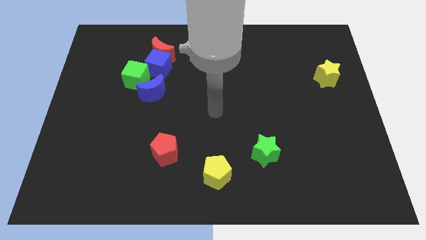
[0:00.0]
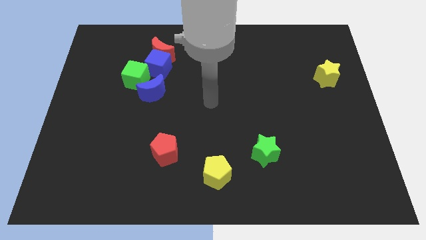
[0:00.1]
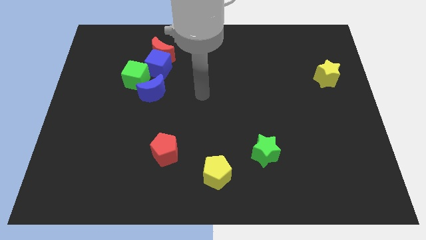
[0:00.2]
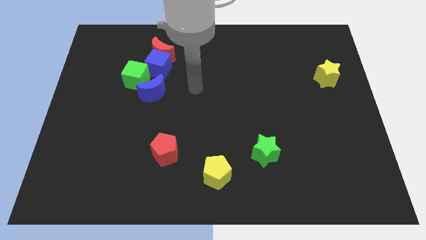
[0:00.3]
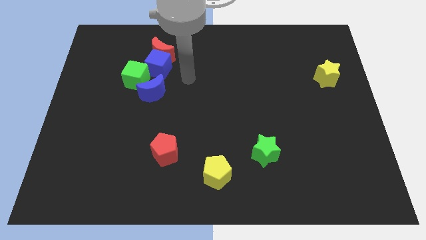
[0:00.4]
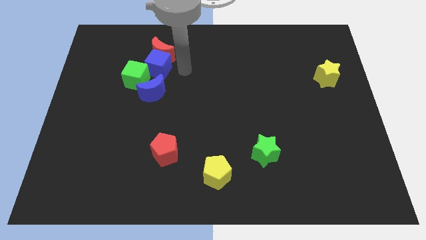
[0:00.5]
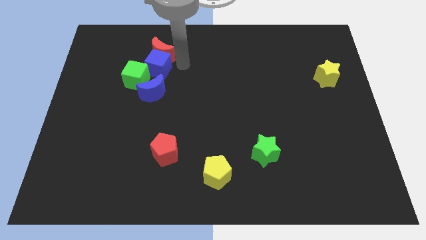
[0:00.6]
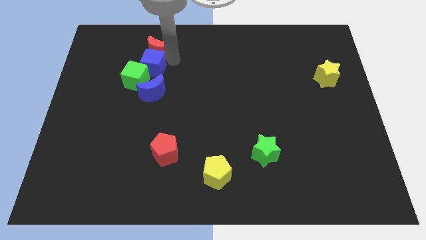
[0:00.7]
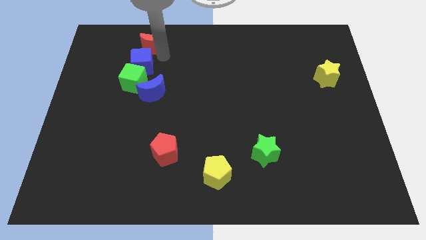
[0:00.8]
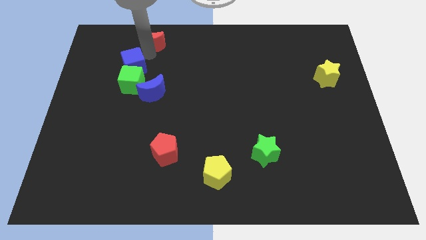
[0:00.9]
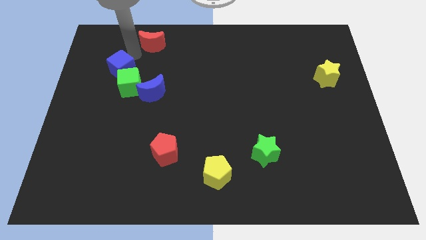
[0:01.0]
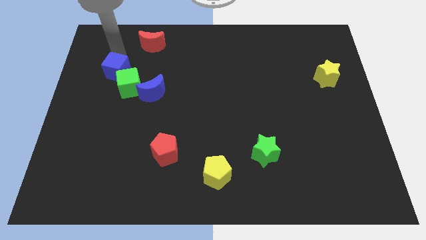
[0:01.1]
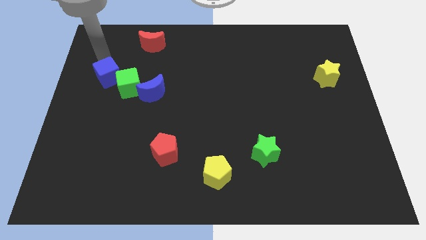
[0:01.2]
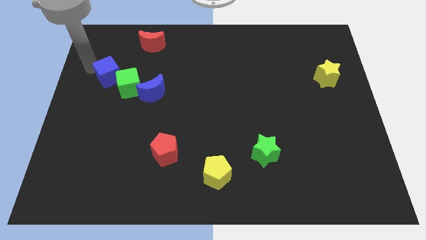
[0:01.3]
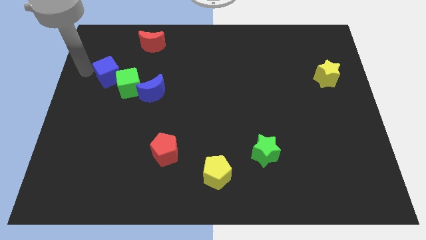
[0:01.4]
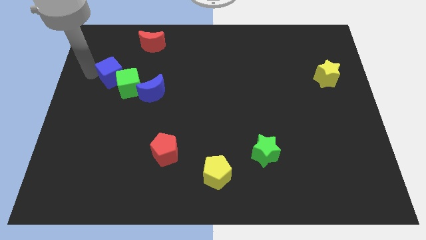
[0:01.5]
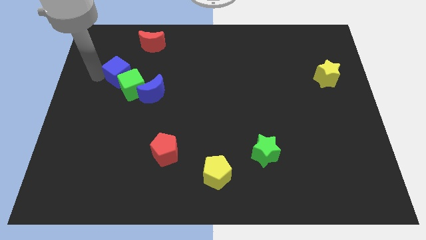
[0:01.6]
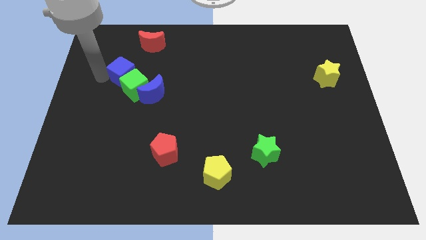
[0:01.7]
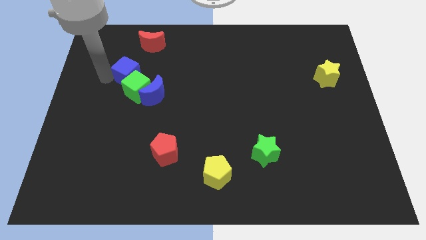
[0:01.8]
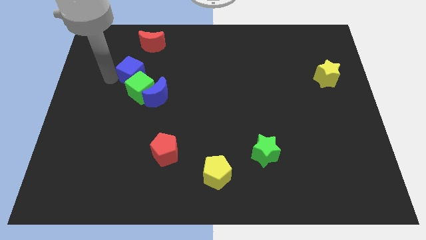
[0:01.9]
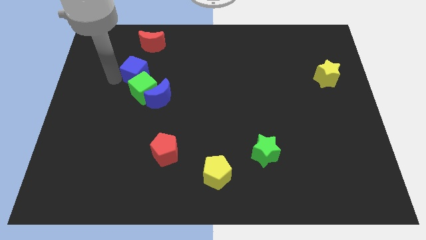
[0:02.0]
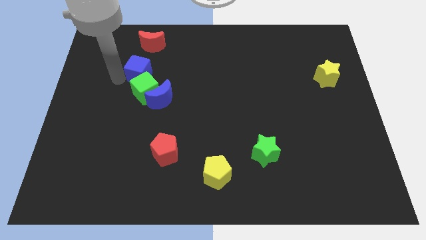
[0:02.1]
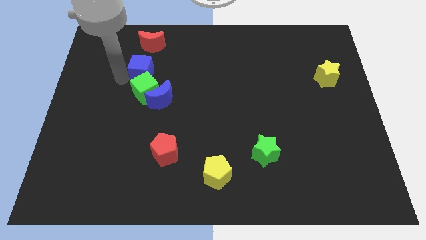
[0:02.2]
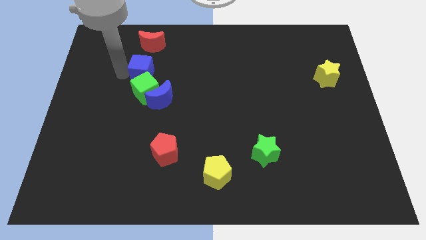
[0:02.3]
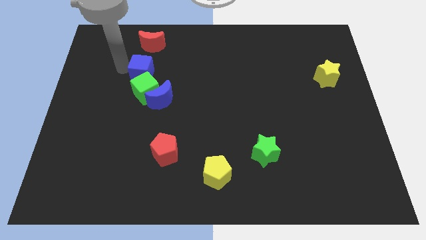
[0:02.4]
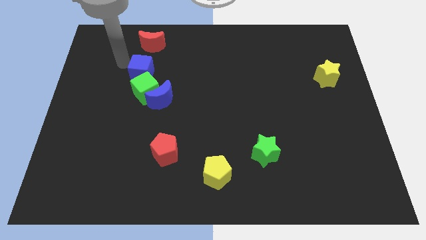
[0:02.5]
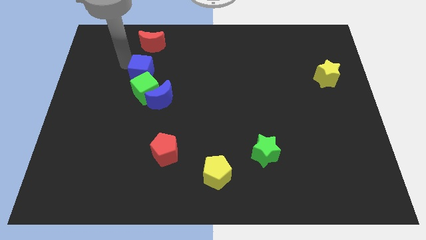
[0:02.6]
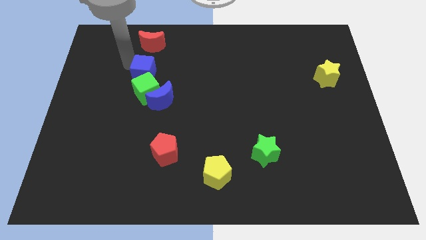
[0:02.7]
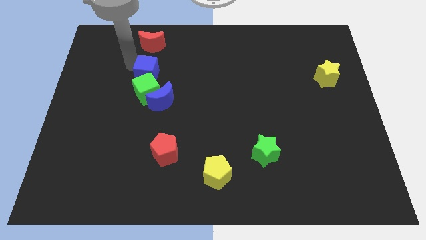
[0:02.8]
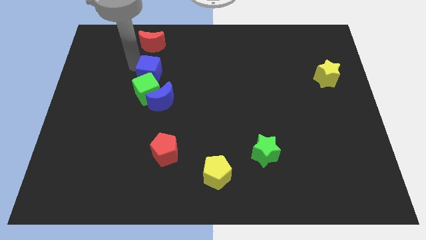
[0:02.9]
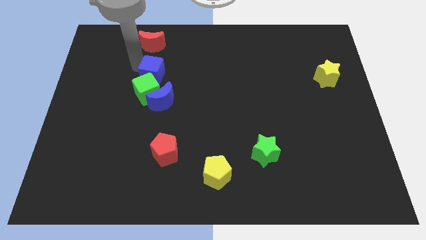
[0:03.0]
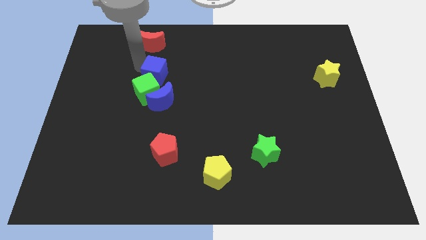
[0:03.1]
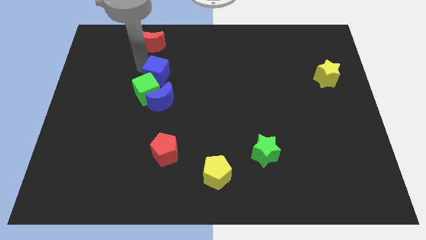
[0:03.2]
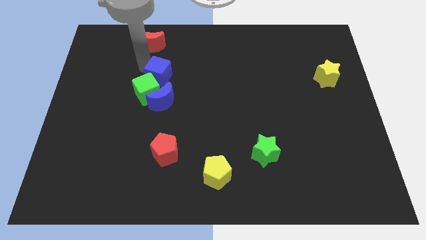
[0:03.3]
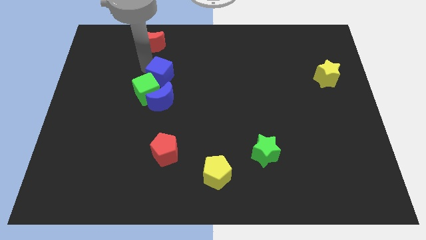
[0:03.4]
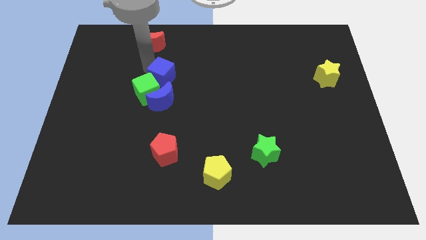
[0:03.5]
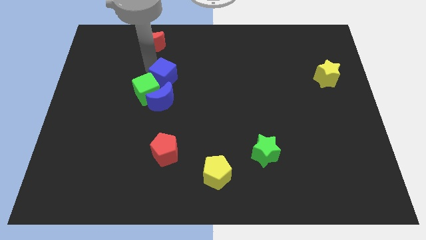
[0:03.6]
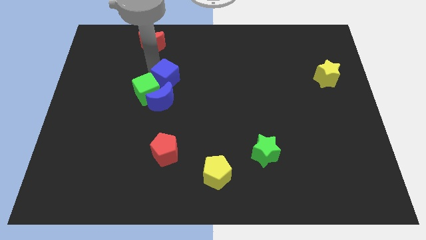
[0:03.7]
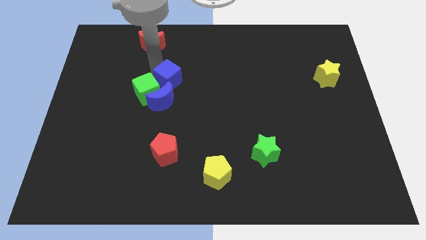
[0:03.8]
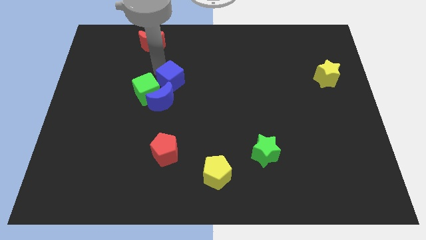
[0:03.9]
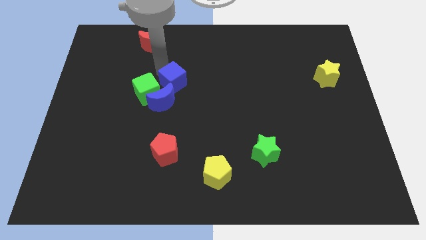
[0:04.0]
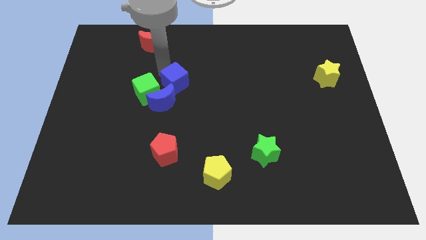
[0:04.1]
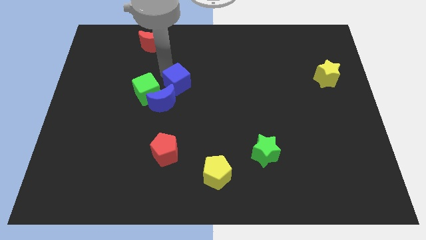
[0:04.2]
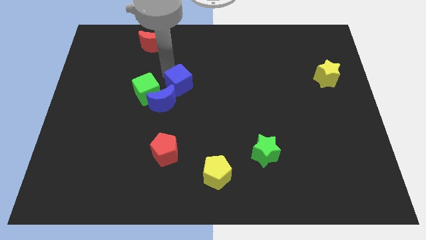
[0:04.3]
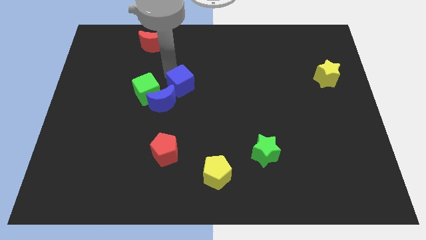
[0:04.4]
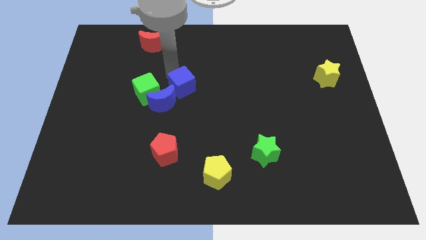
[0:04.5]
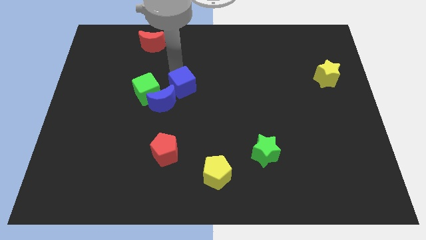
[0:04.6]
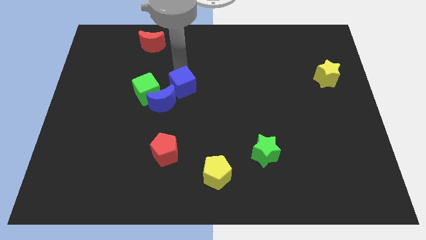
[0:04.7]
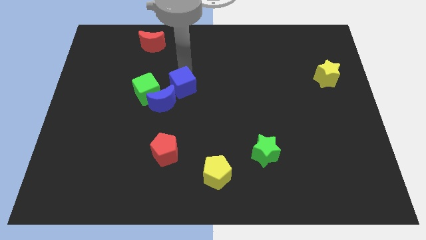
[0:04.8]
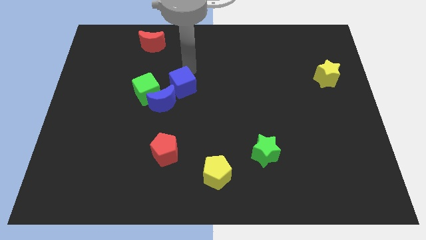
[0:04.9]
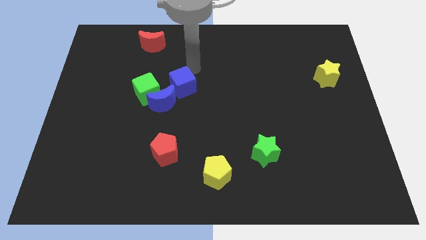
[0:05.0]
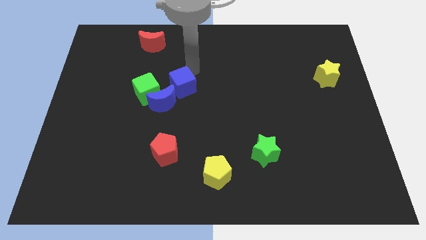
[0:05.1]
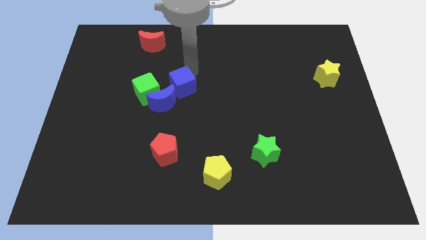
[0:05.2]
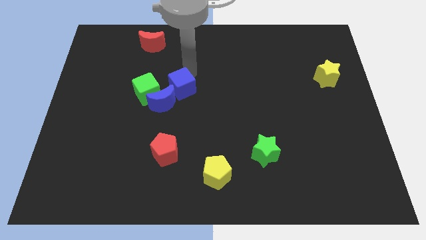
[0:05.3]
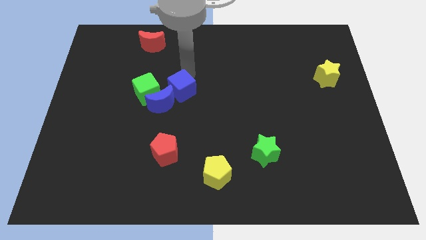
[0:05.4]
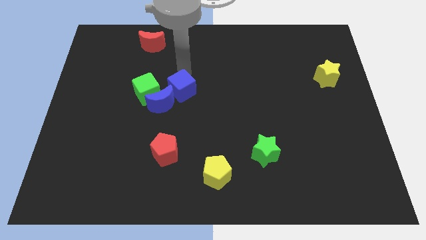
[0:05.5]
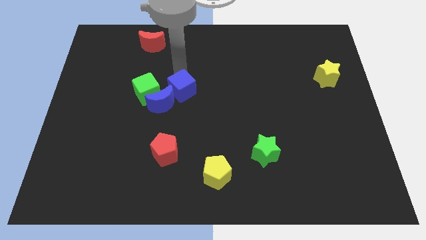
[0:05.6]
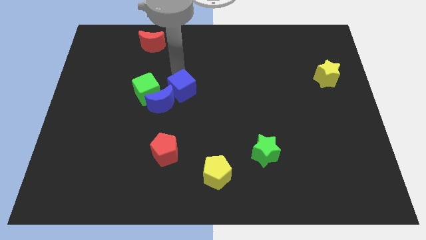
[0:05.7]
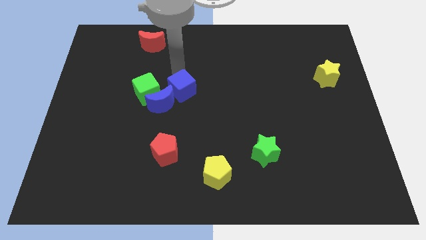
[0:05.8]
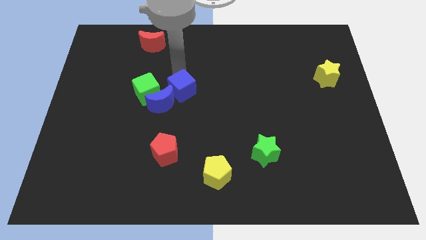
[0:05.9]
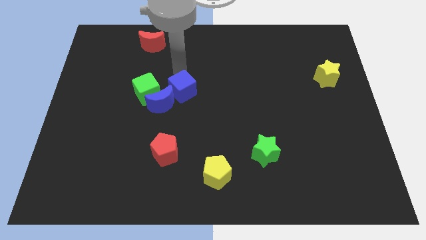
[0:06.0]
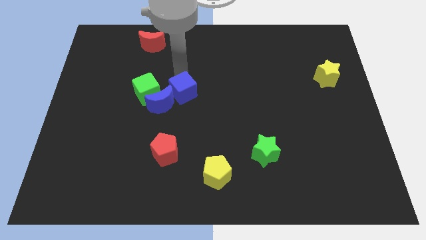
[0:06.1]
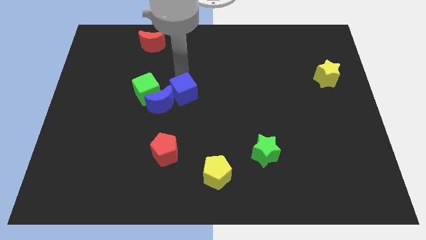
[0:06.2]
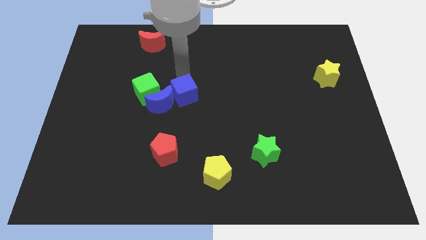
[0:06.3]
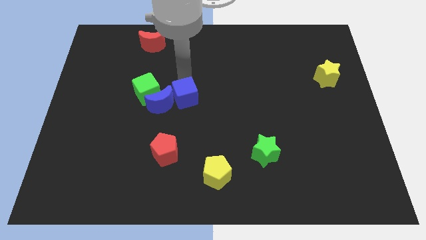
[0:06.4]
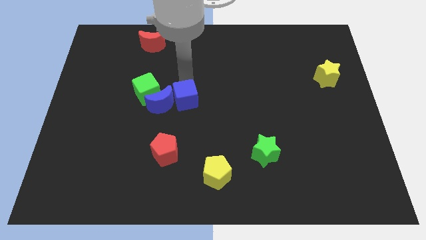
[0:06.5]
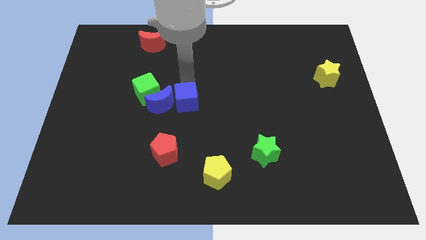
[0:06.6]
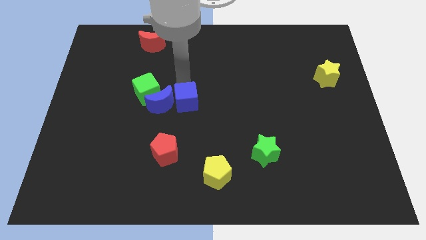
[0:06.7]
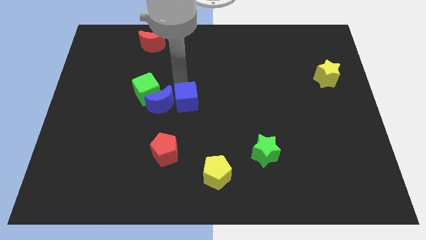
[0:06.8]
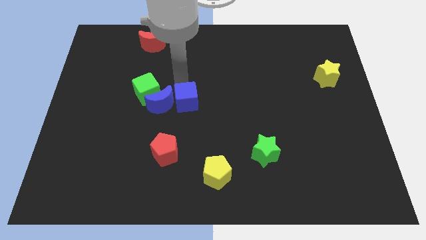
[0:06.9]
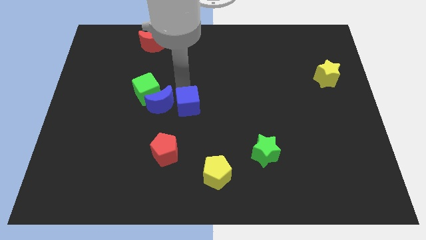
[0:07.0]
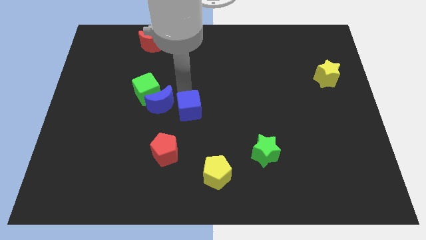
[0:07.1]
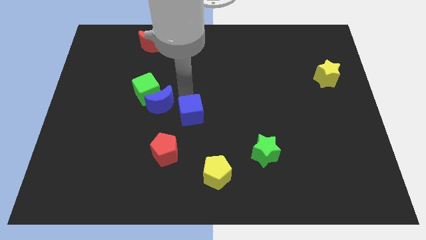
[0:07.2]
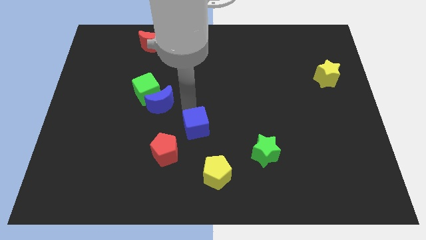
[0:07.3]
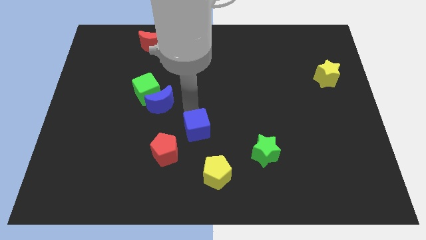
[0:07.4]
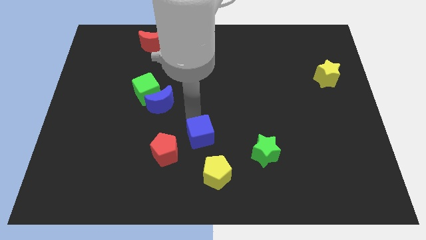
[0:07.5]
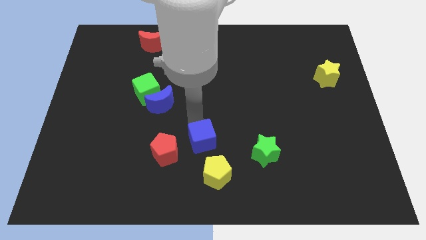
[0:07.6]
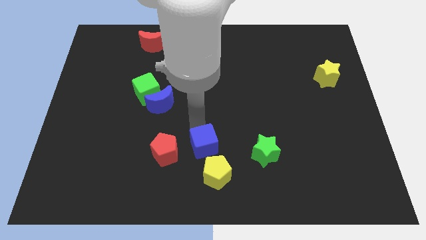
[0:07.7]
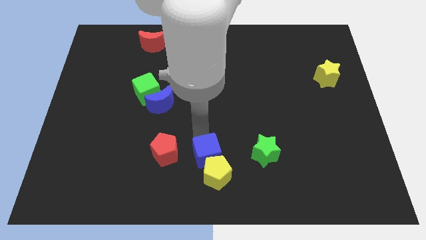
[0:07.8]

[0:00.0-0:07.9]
move the blue cube close to the yellow pentagon
